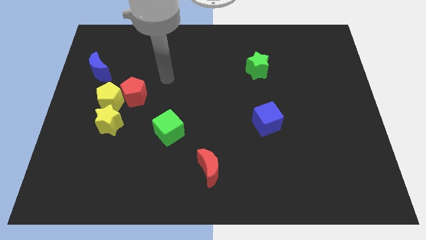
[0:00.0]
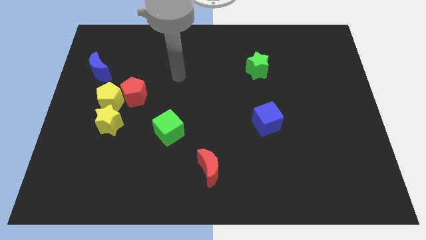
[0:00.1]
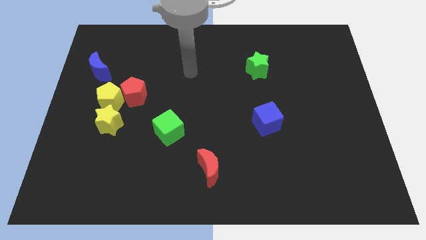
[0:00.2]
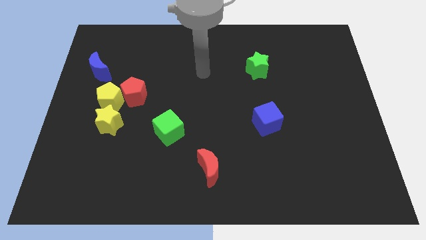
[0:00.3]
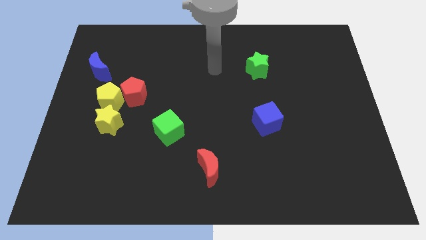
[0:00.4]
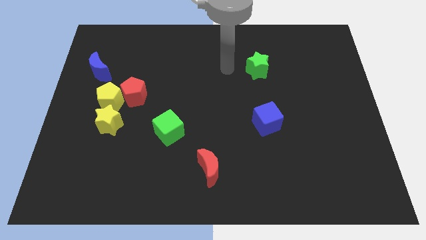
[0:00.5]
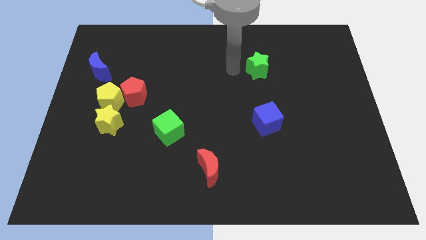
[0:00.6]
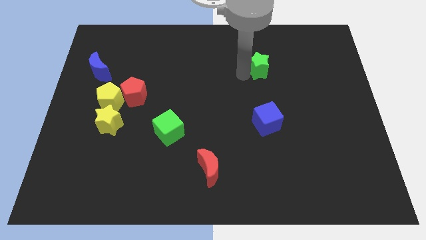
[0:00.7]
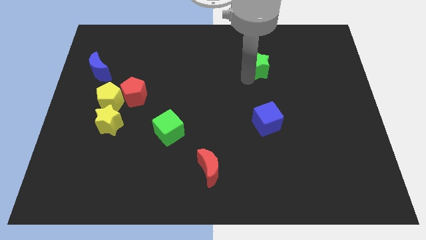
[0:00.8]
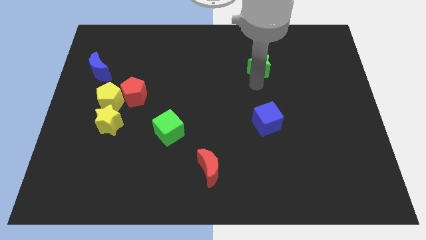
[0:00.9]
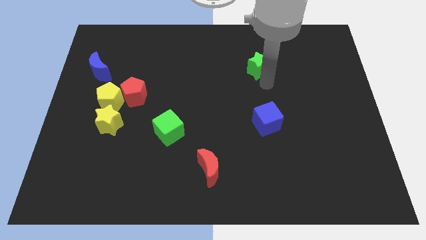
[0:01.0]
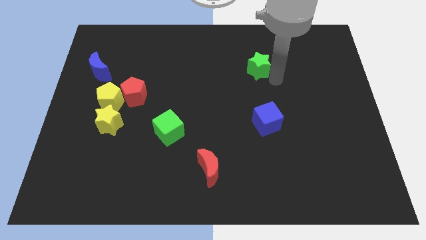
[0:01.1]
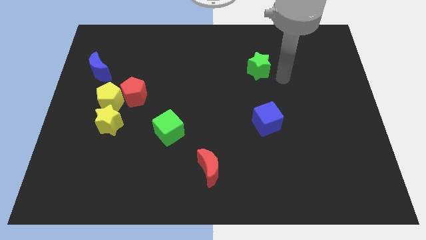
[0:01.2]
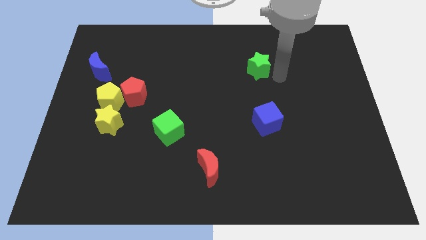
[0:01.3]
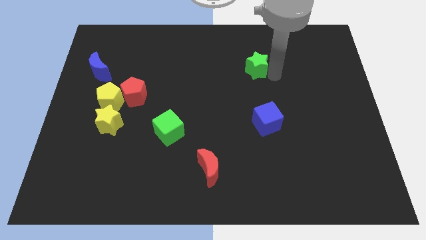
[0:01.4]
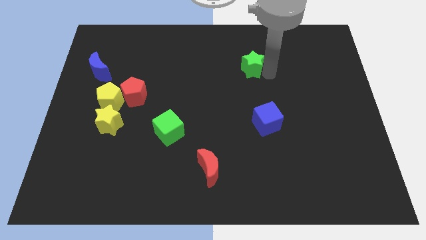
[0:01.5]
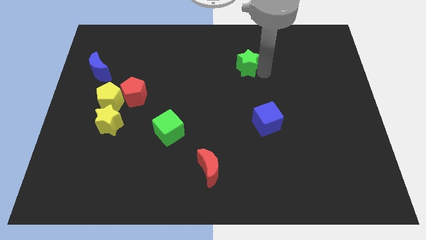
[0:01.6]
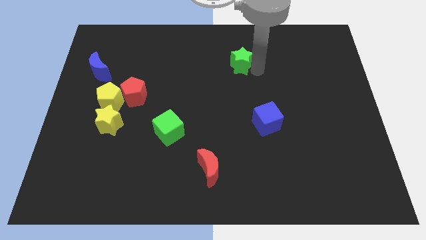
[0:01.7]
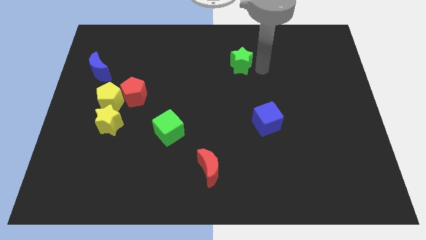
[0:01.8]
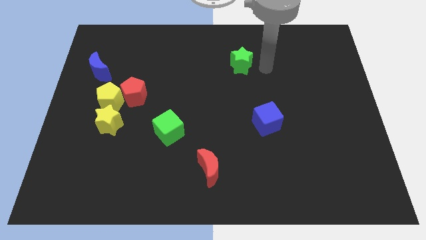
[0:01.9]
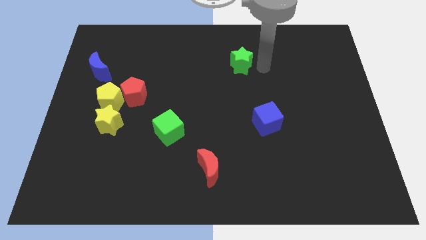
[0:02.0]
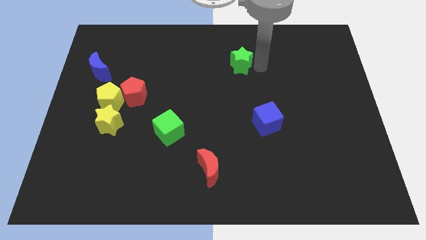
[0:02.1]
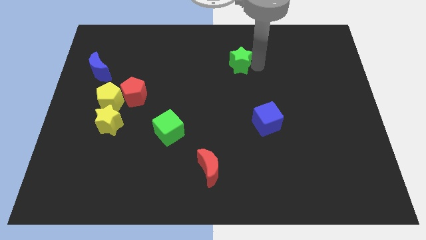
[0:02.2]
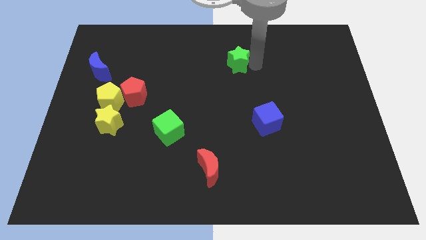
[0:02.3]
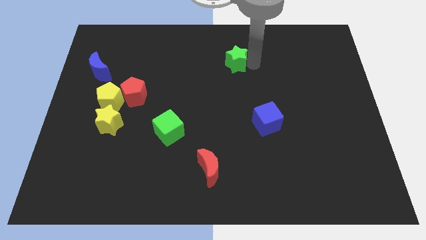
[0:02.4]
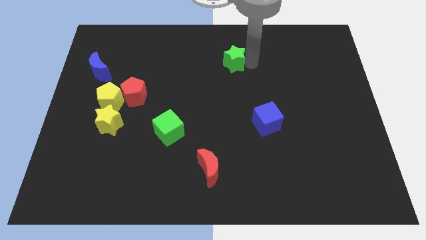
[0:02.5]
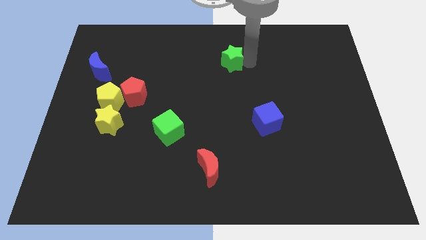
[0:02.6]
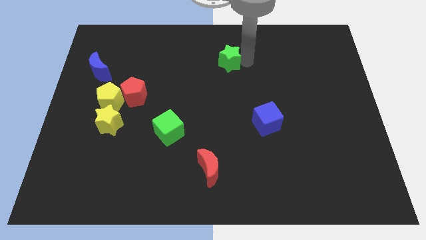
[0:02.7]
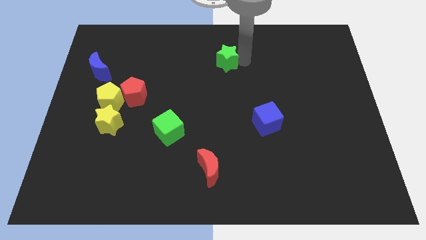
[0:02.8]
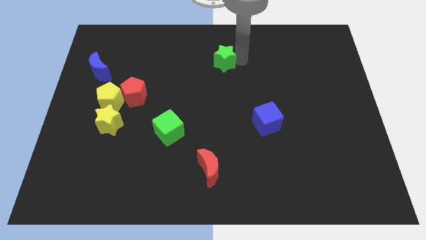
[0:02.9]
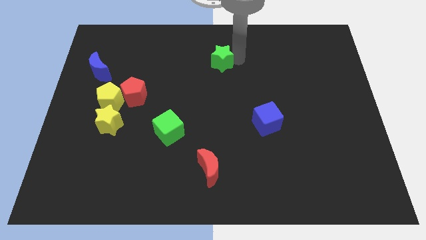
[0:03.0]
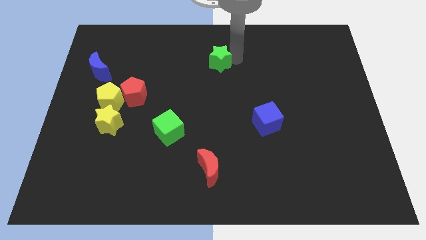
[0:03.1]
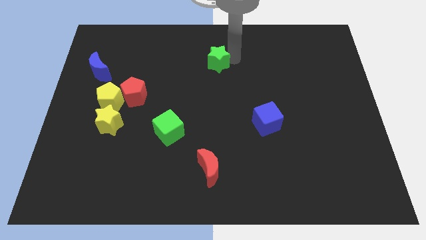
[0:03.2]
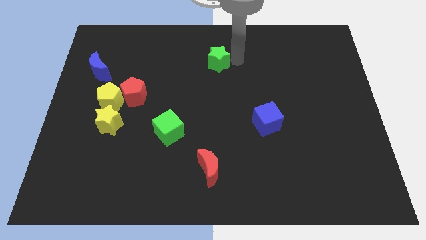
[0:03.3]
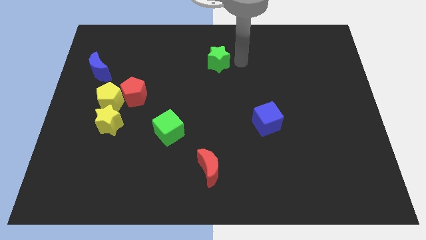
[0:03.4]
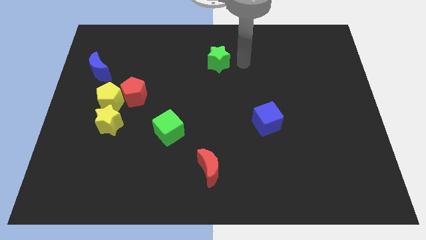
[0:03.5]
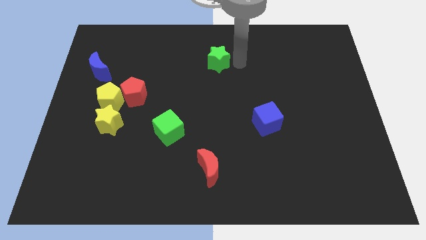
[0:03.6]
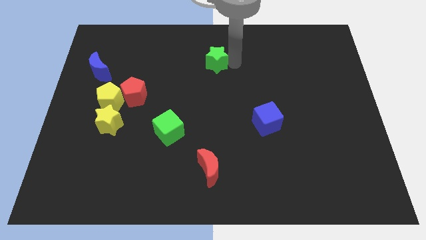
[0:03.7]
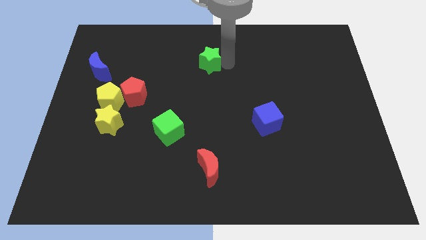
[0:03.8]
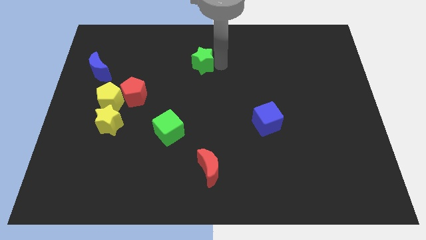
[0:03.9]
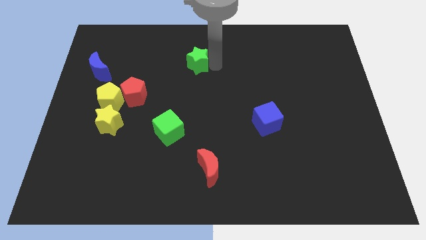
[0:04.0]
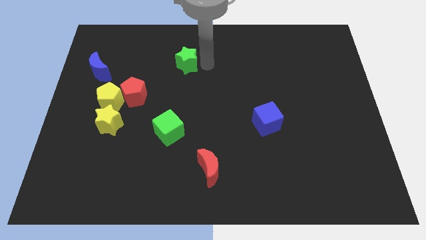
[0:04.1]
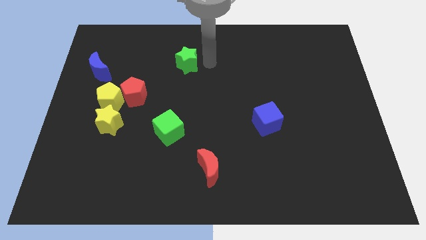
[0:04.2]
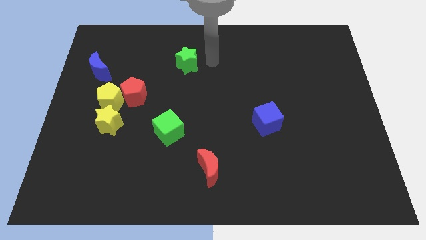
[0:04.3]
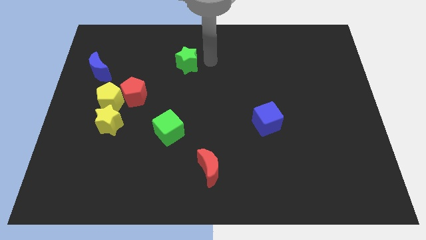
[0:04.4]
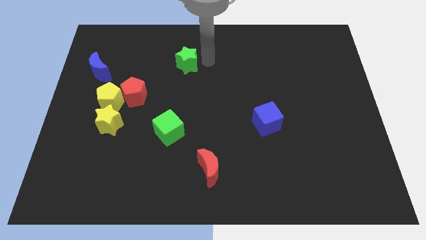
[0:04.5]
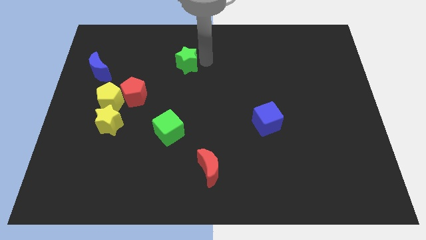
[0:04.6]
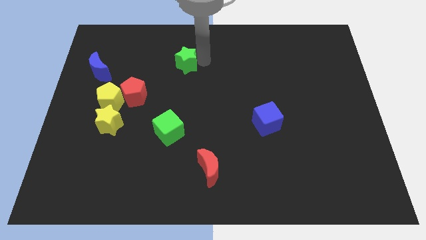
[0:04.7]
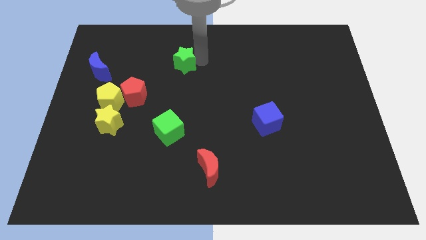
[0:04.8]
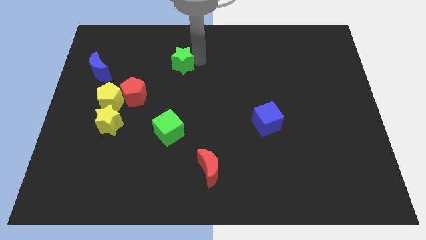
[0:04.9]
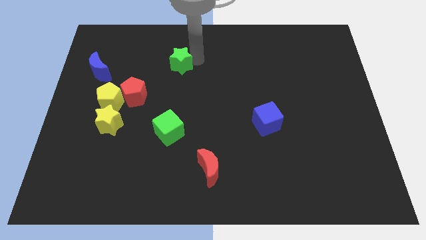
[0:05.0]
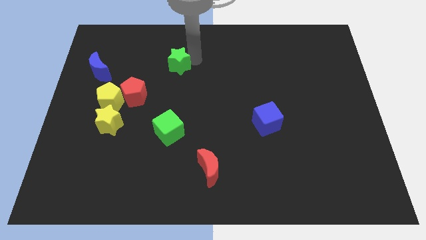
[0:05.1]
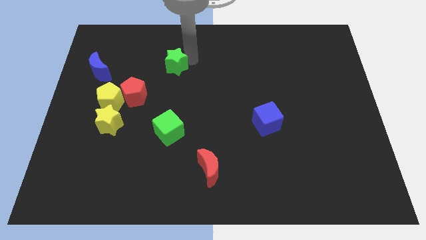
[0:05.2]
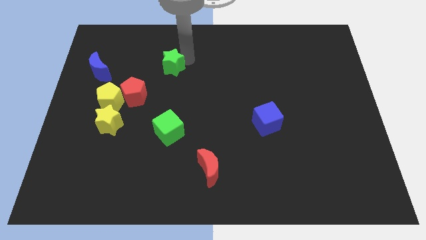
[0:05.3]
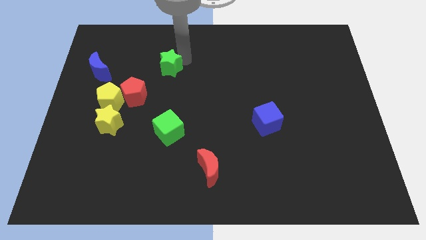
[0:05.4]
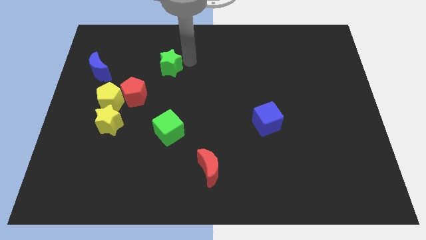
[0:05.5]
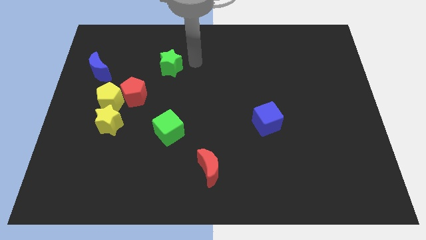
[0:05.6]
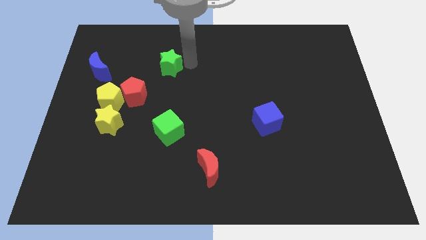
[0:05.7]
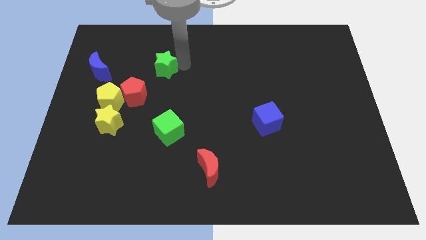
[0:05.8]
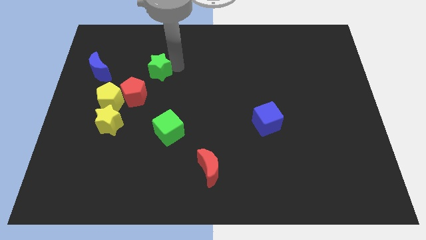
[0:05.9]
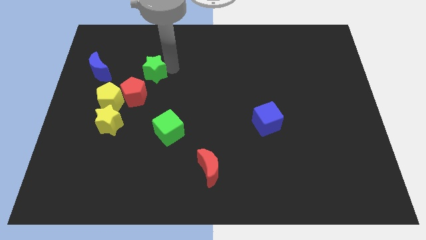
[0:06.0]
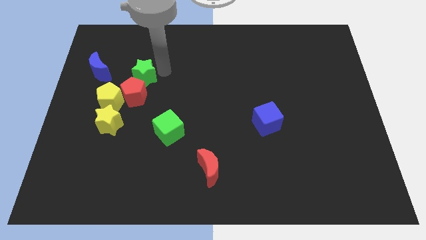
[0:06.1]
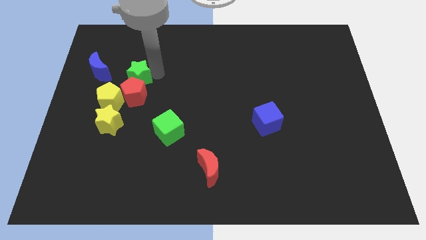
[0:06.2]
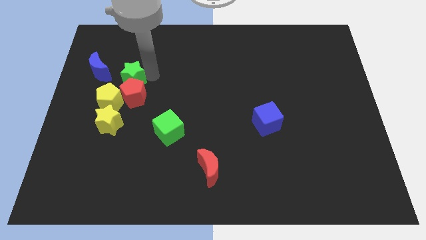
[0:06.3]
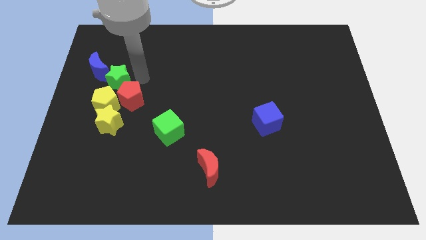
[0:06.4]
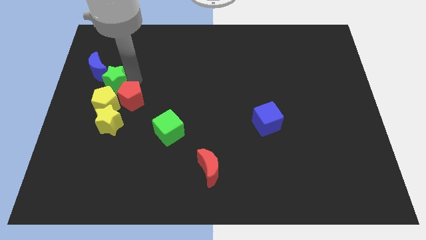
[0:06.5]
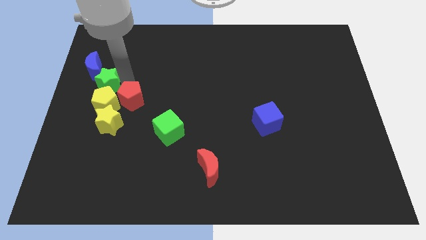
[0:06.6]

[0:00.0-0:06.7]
slide the green star to the center left
